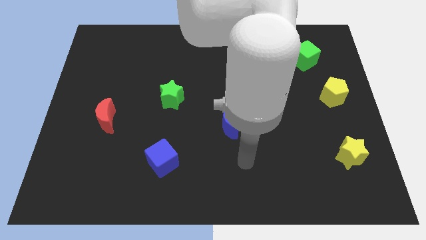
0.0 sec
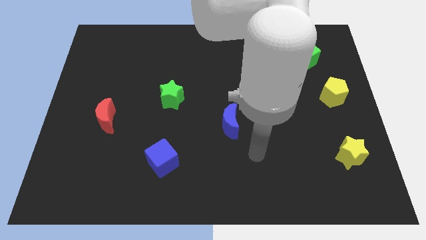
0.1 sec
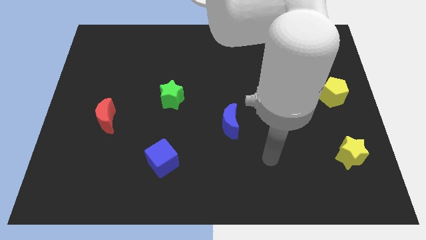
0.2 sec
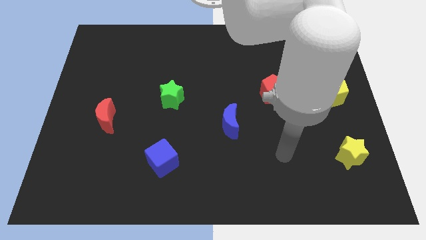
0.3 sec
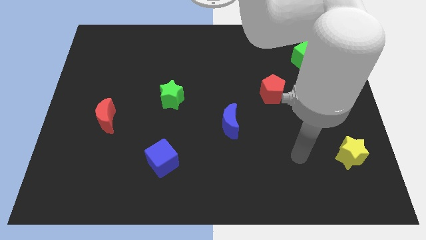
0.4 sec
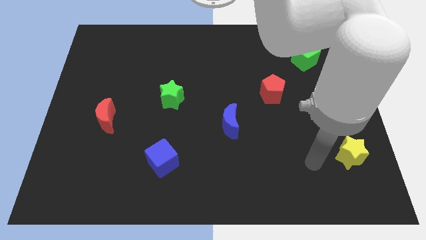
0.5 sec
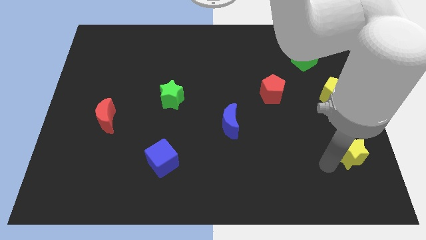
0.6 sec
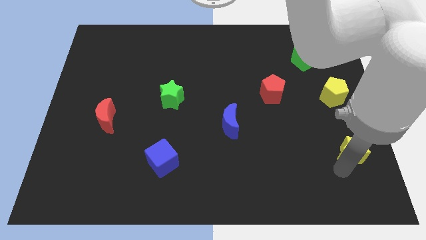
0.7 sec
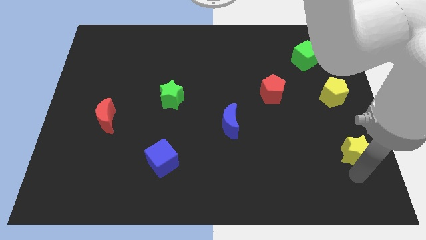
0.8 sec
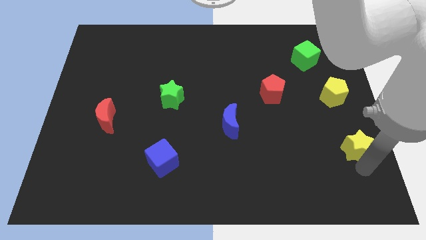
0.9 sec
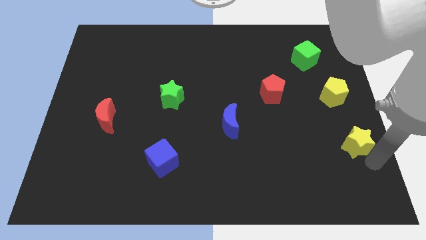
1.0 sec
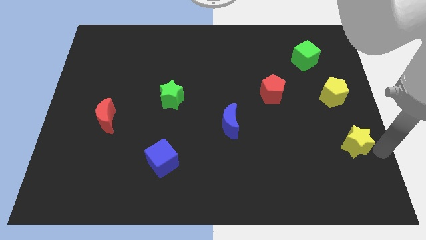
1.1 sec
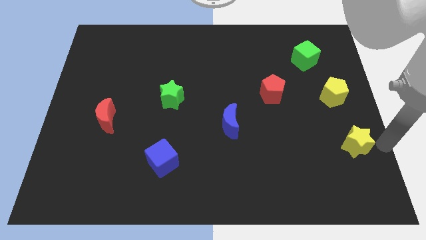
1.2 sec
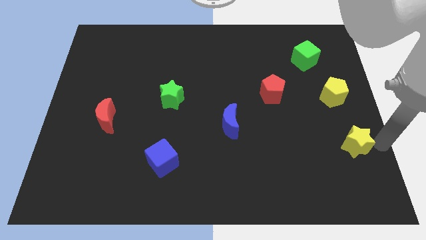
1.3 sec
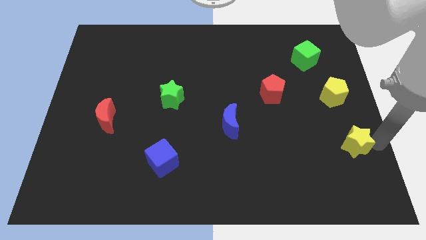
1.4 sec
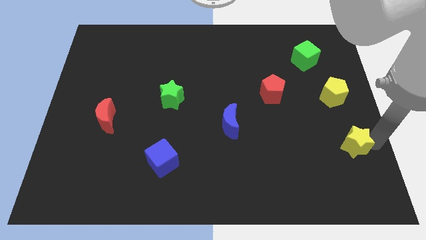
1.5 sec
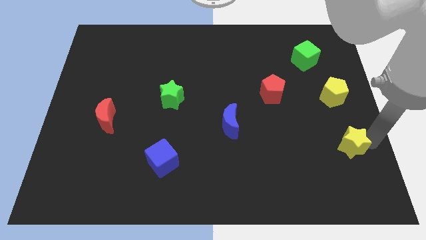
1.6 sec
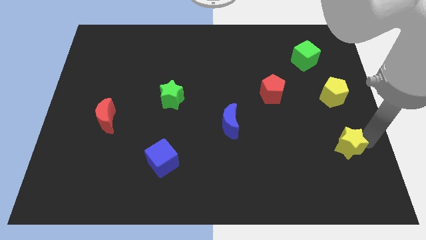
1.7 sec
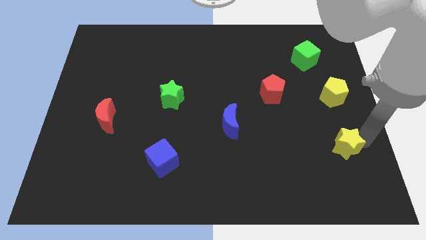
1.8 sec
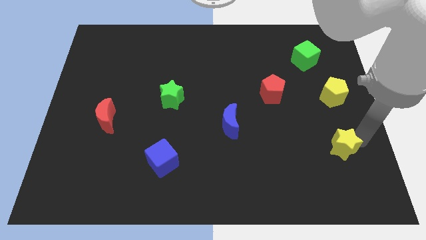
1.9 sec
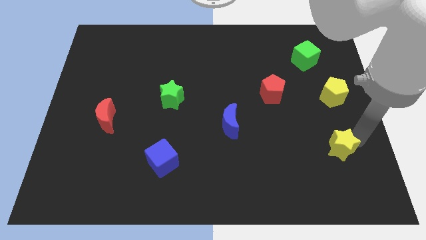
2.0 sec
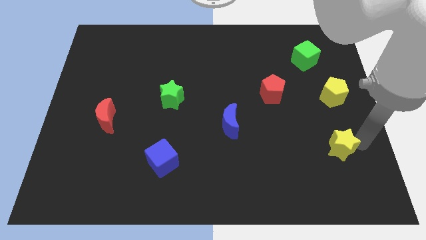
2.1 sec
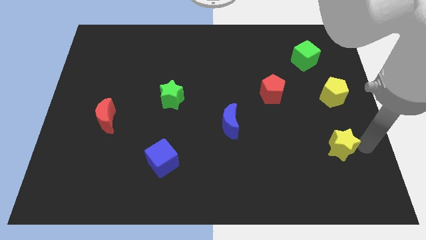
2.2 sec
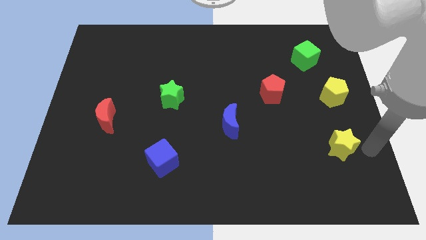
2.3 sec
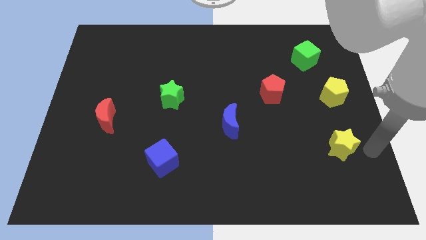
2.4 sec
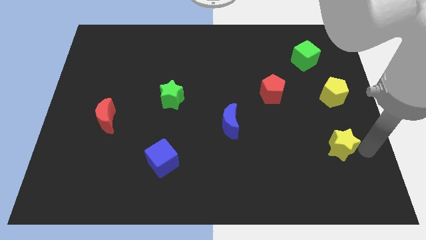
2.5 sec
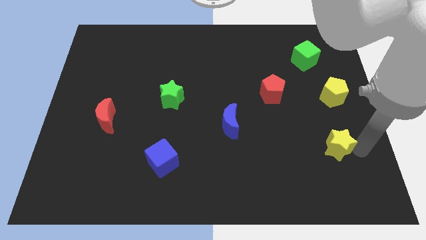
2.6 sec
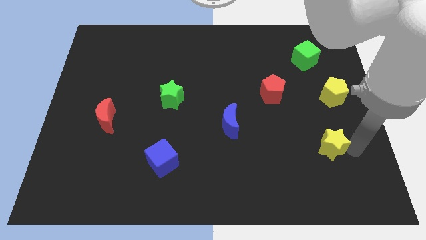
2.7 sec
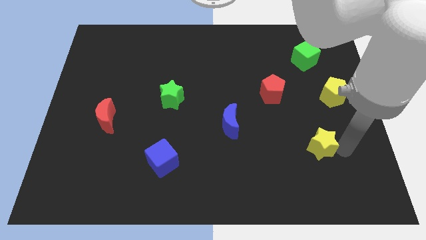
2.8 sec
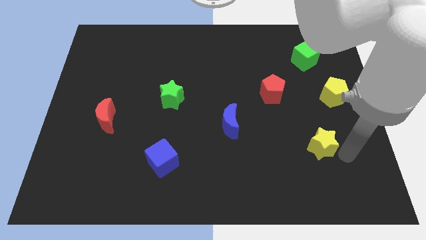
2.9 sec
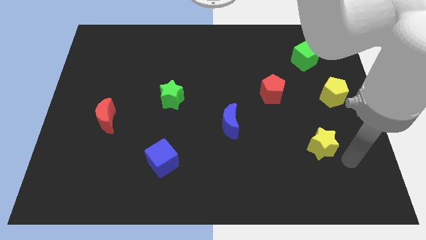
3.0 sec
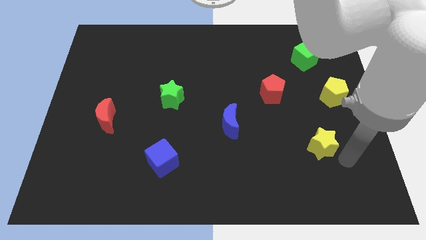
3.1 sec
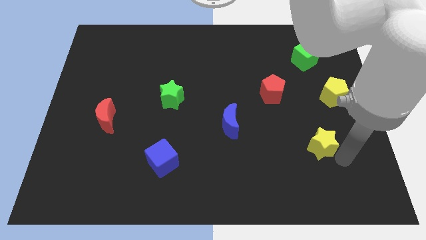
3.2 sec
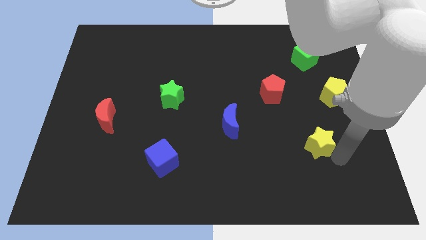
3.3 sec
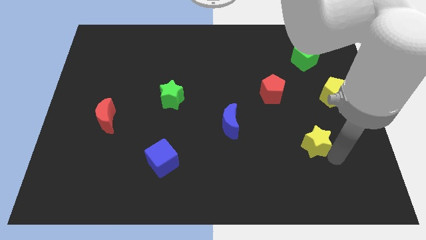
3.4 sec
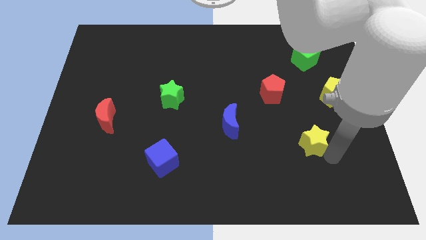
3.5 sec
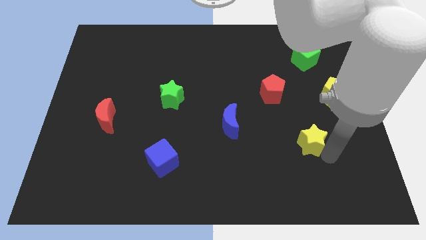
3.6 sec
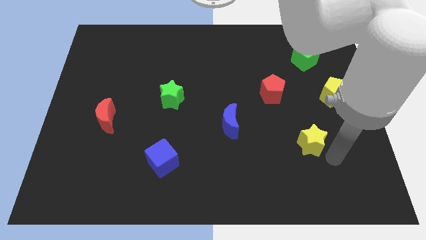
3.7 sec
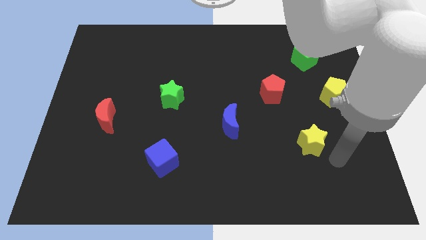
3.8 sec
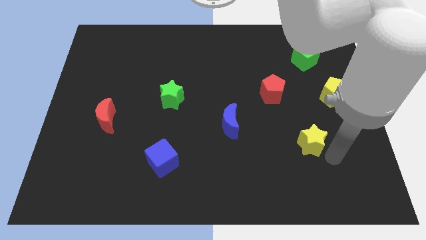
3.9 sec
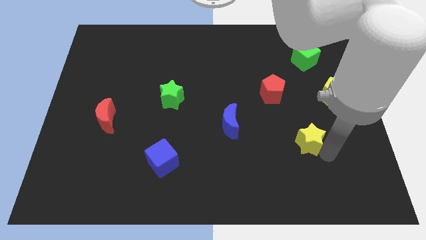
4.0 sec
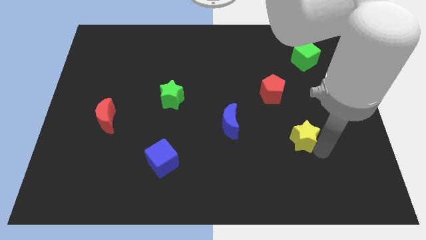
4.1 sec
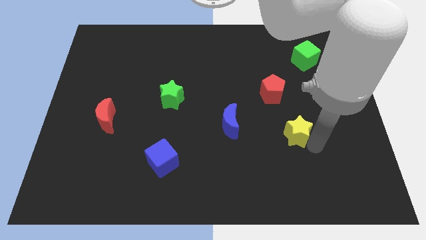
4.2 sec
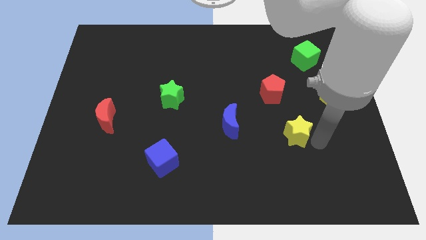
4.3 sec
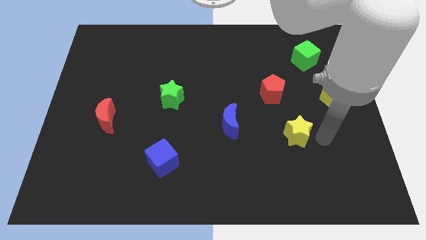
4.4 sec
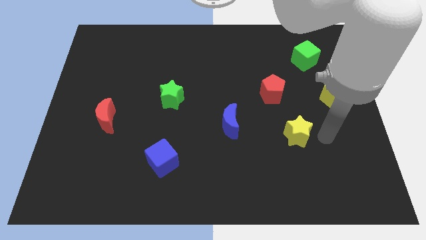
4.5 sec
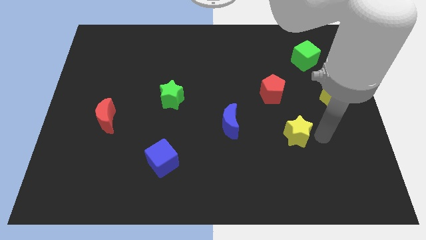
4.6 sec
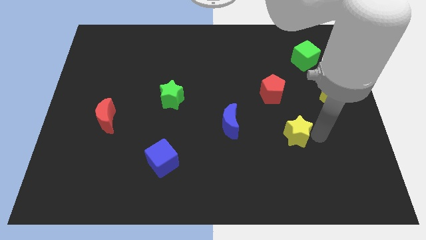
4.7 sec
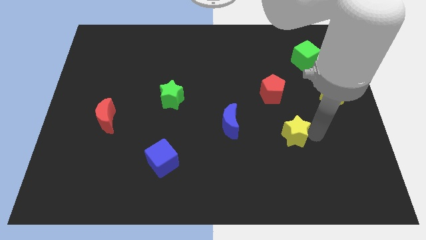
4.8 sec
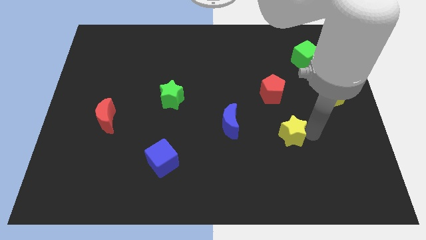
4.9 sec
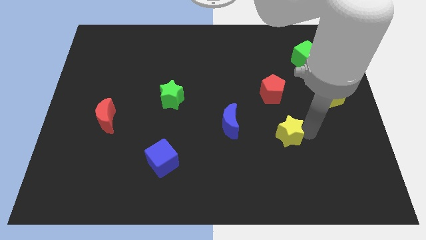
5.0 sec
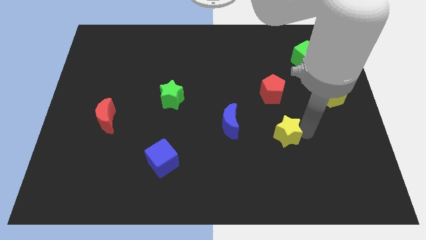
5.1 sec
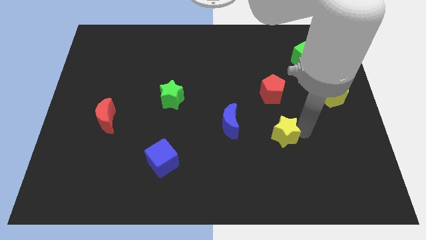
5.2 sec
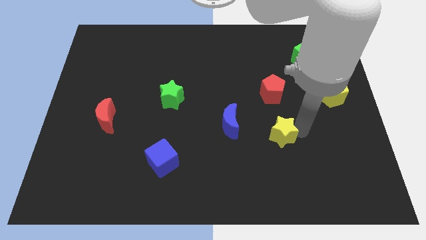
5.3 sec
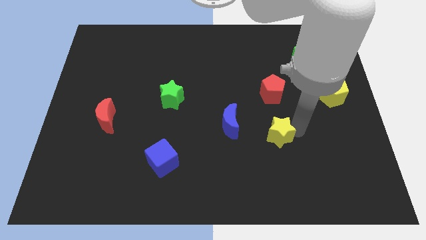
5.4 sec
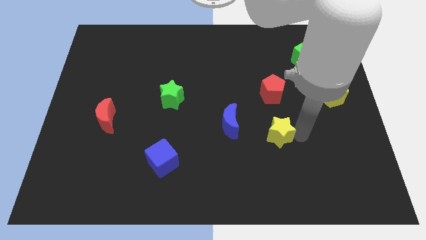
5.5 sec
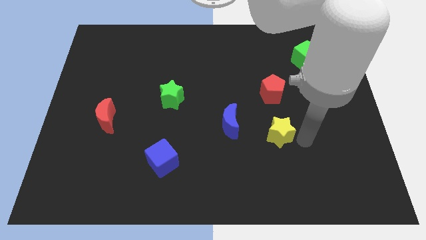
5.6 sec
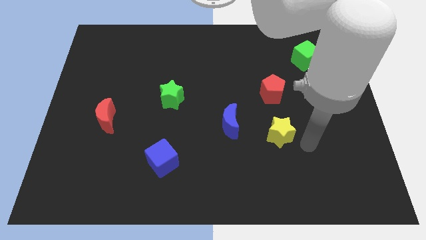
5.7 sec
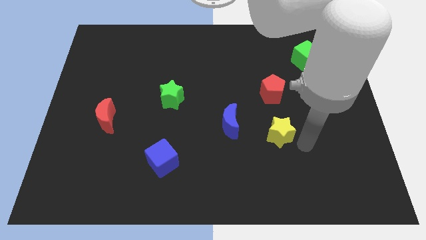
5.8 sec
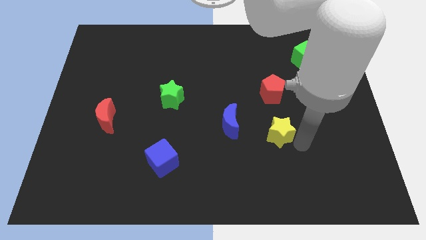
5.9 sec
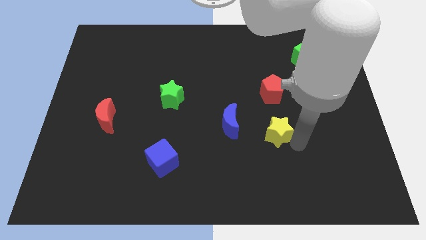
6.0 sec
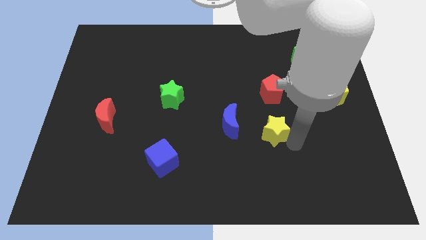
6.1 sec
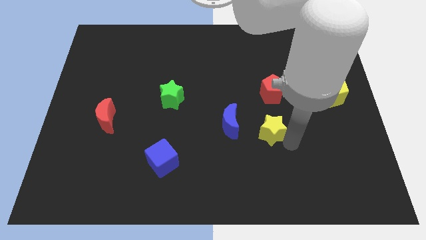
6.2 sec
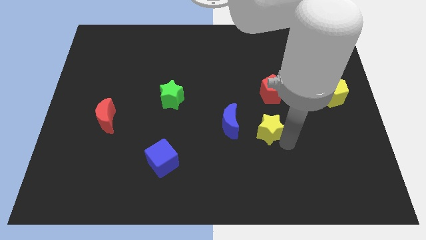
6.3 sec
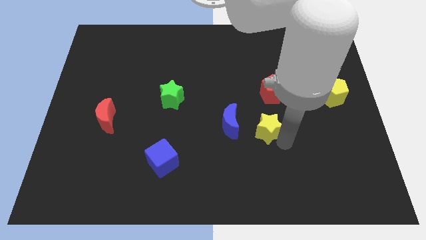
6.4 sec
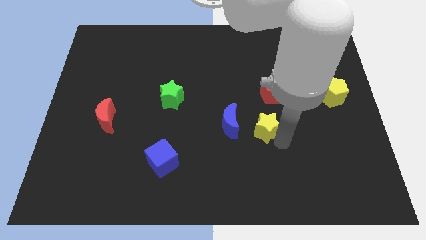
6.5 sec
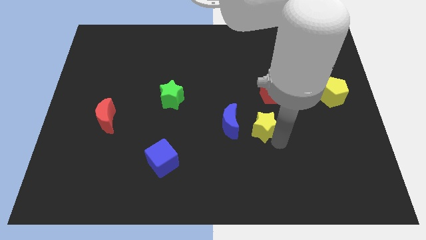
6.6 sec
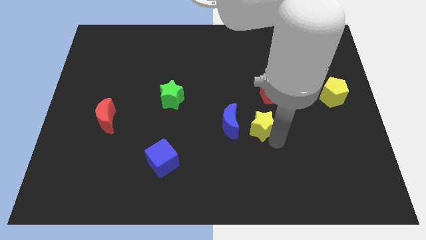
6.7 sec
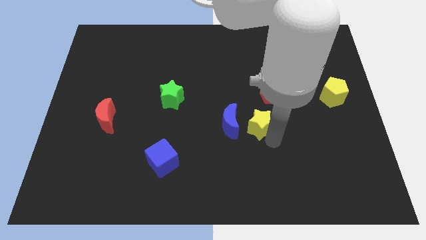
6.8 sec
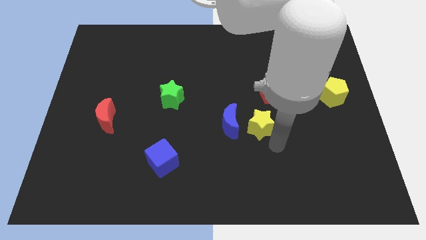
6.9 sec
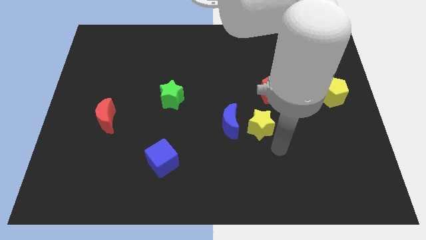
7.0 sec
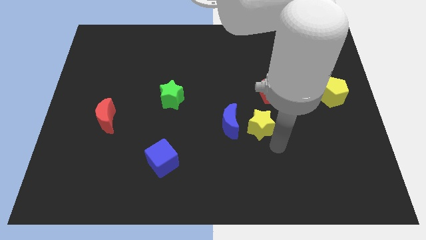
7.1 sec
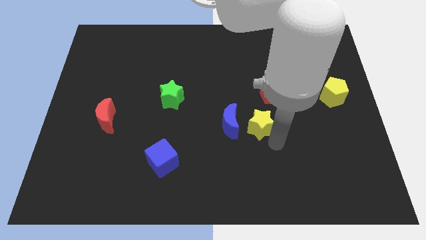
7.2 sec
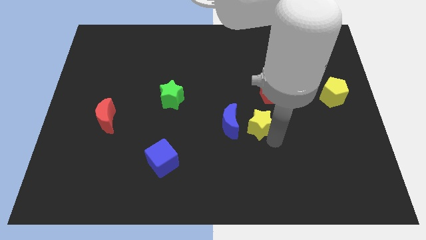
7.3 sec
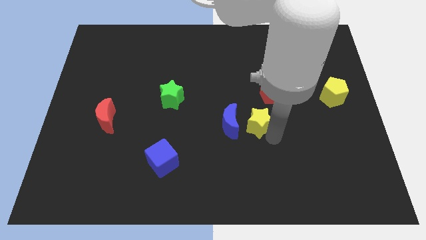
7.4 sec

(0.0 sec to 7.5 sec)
push the yellow star to the middle of the board
